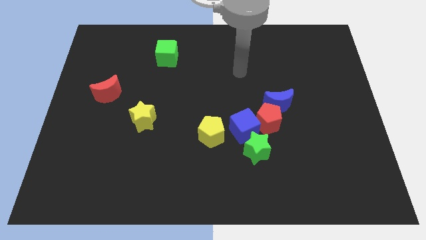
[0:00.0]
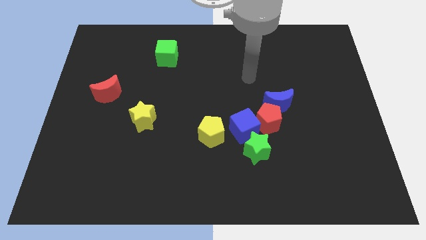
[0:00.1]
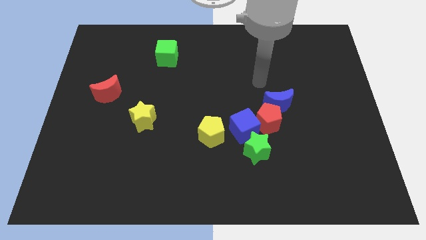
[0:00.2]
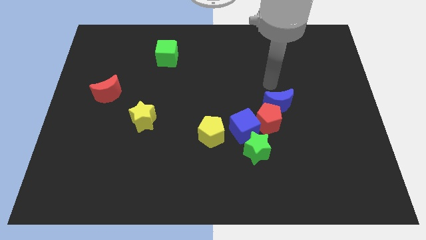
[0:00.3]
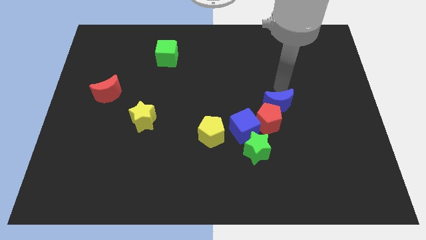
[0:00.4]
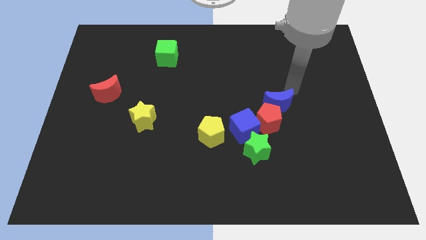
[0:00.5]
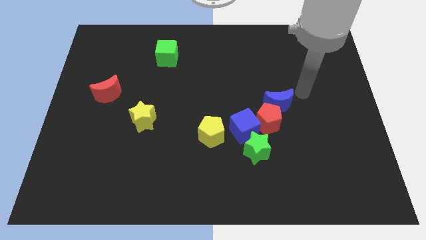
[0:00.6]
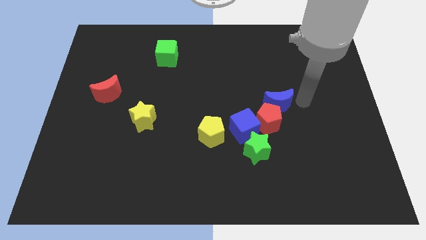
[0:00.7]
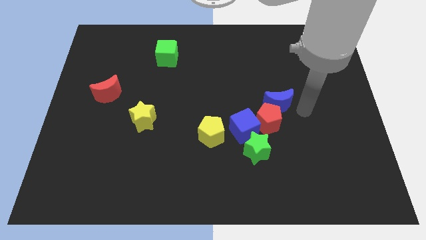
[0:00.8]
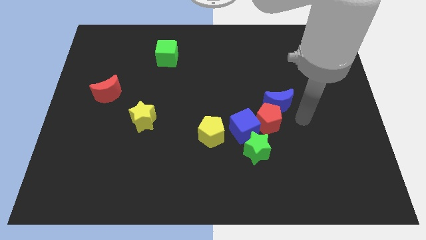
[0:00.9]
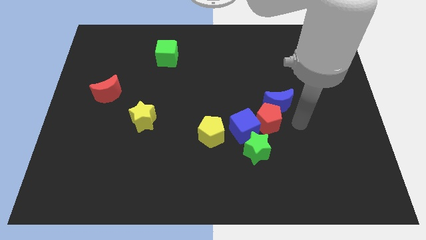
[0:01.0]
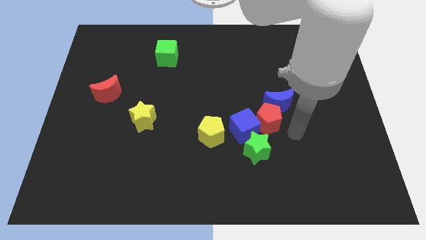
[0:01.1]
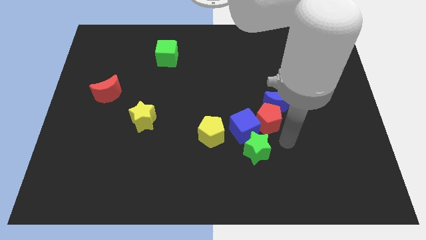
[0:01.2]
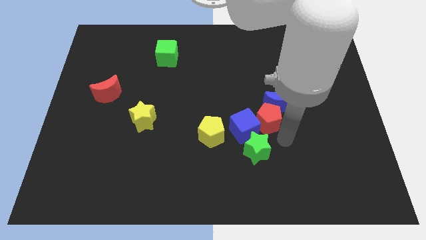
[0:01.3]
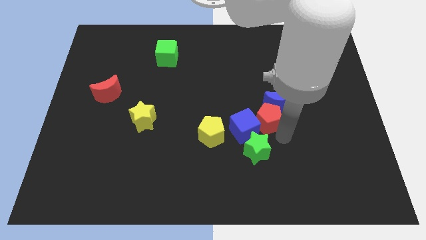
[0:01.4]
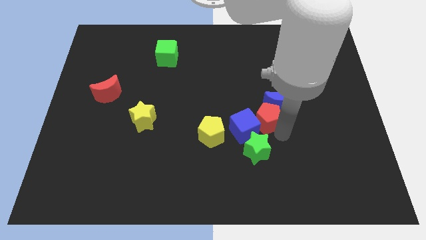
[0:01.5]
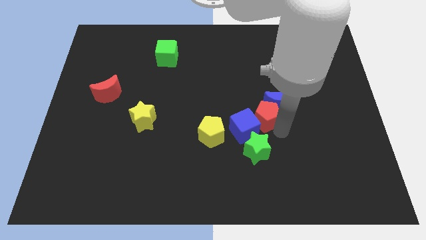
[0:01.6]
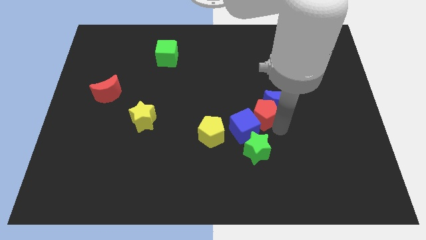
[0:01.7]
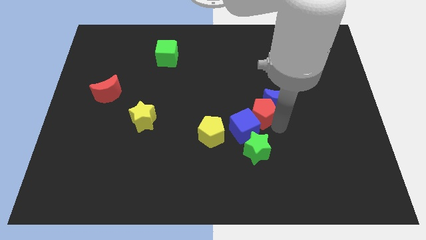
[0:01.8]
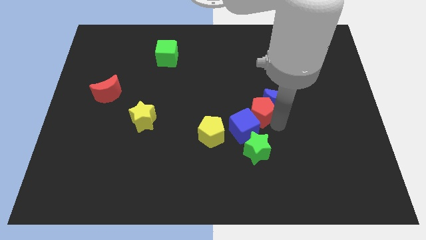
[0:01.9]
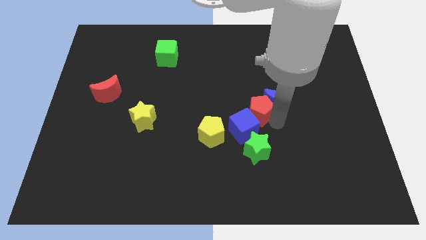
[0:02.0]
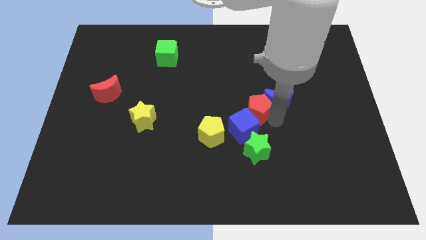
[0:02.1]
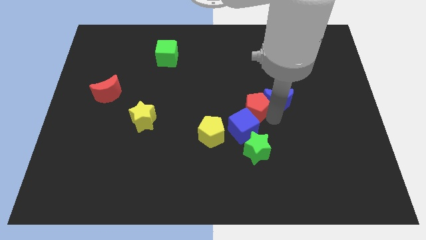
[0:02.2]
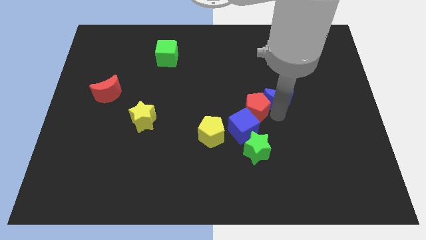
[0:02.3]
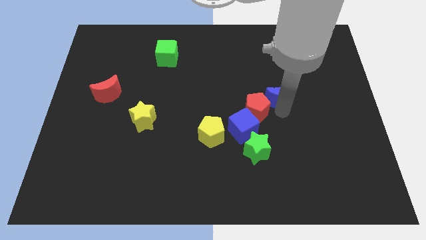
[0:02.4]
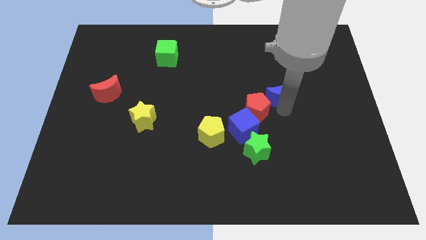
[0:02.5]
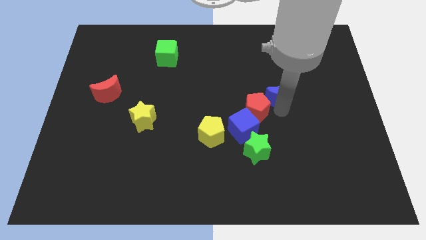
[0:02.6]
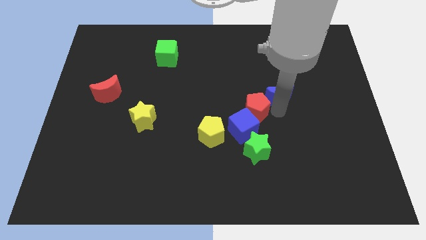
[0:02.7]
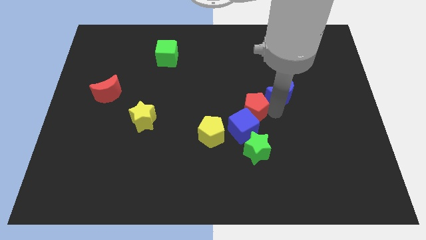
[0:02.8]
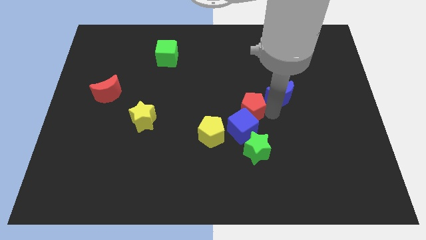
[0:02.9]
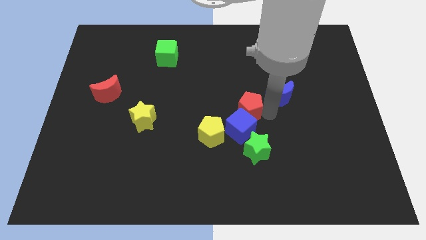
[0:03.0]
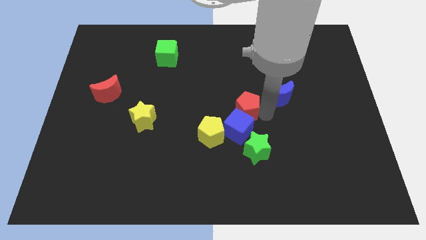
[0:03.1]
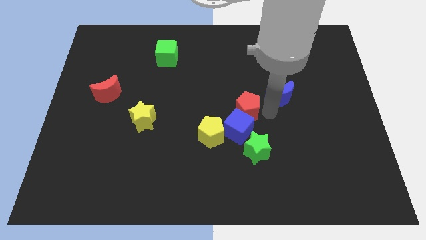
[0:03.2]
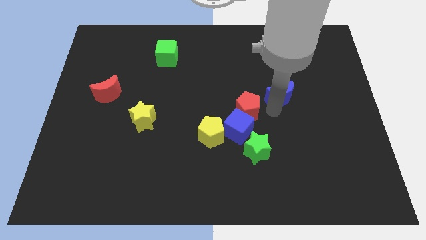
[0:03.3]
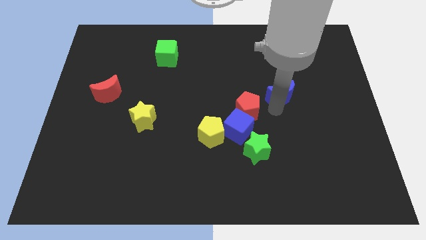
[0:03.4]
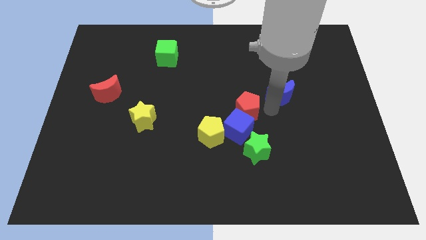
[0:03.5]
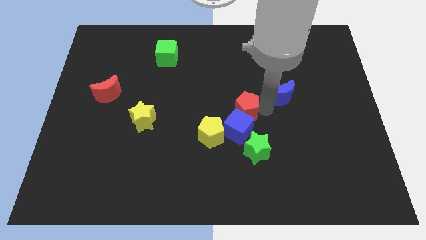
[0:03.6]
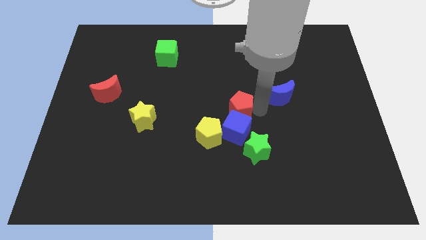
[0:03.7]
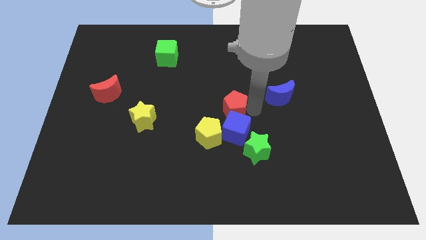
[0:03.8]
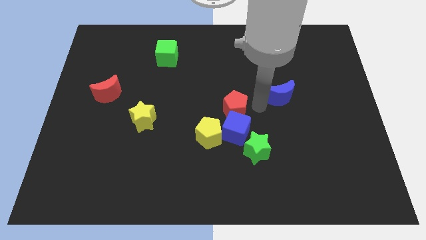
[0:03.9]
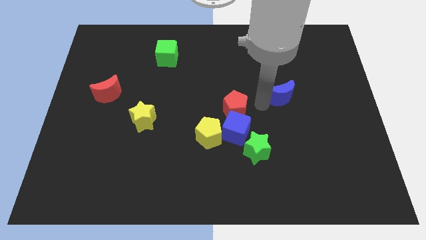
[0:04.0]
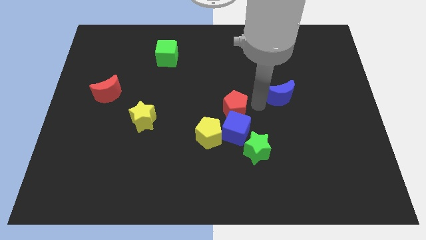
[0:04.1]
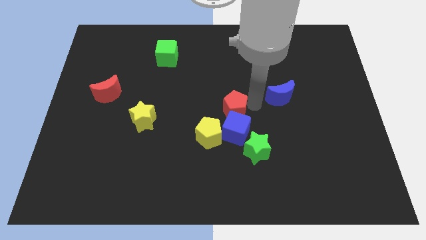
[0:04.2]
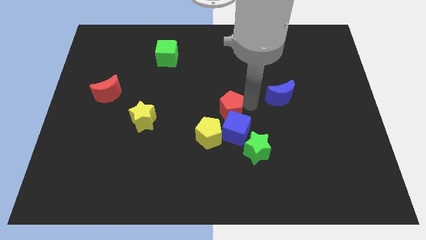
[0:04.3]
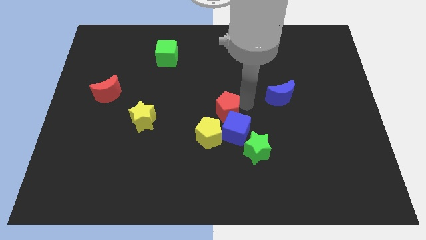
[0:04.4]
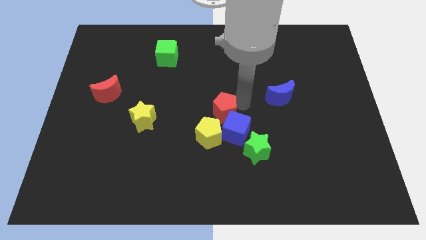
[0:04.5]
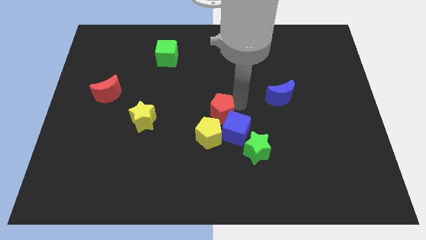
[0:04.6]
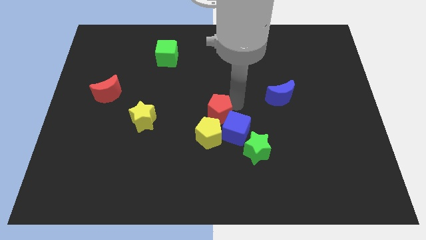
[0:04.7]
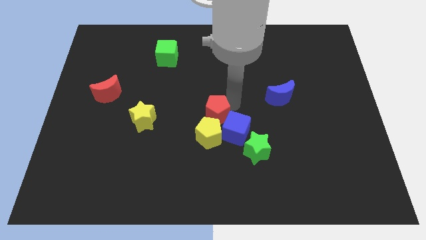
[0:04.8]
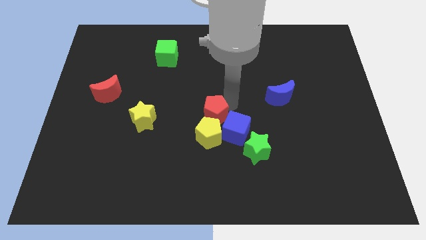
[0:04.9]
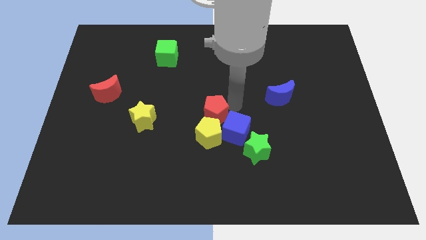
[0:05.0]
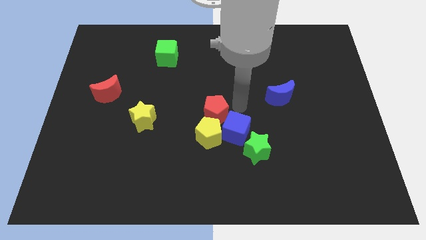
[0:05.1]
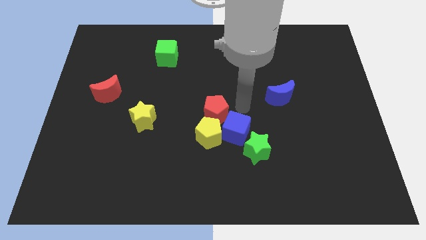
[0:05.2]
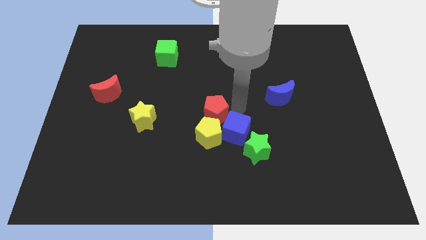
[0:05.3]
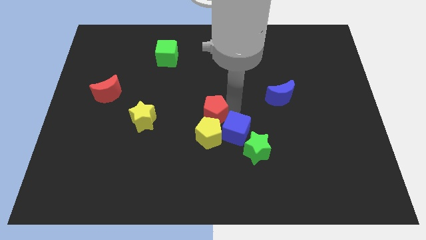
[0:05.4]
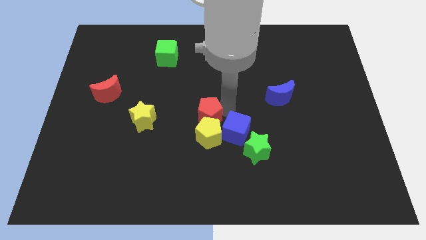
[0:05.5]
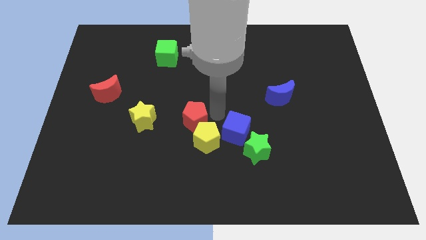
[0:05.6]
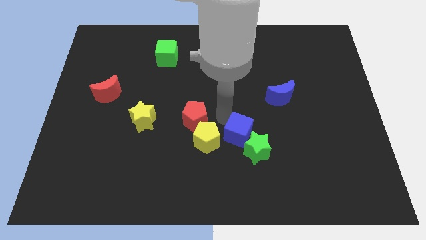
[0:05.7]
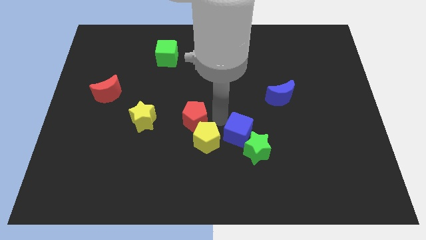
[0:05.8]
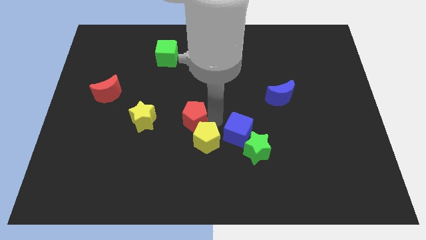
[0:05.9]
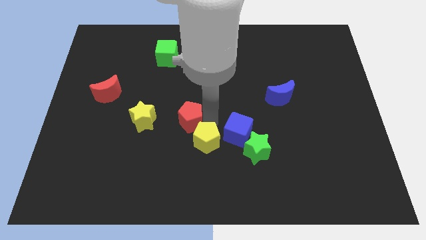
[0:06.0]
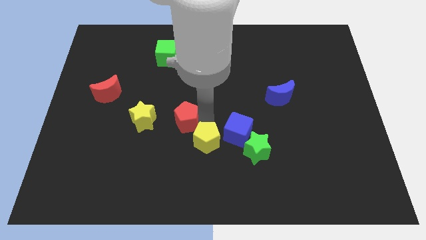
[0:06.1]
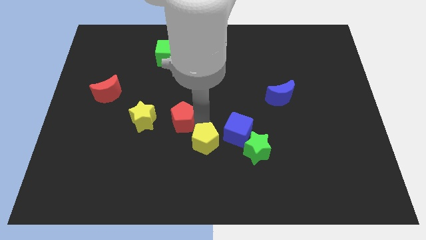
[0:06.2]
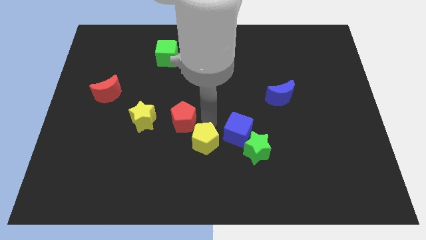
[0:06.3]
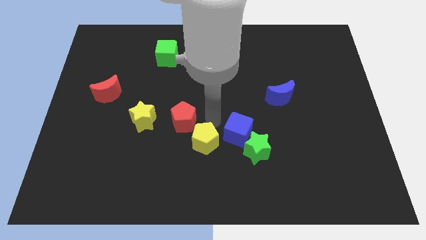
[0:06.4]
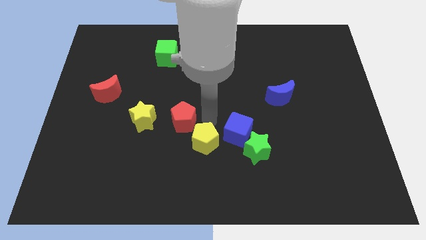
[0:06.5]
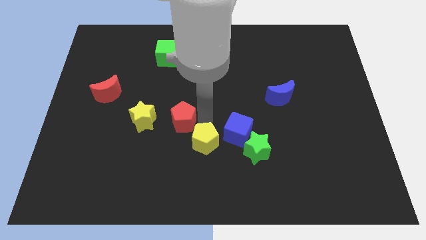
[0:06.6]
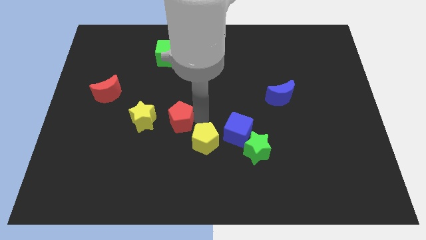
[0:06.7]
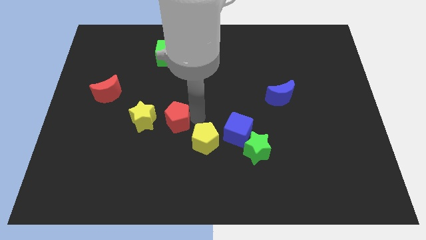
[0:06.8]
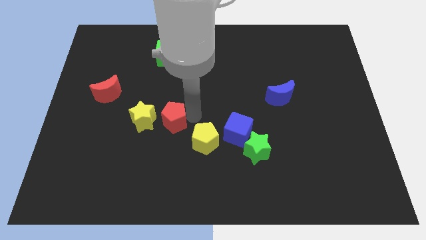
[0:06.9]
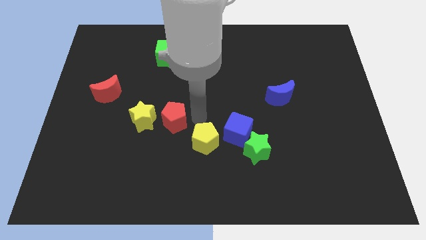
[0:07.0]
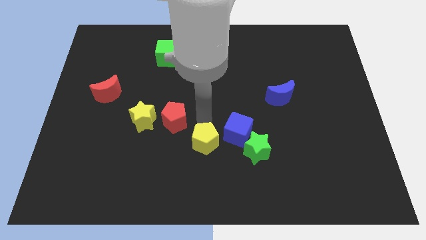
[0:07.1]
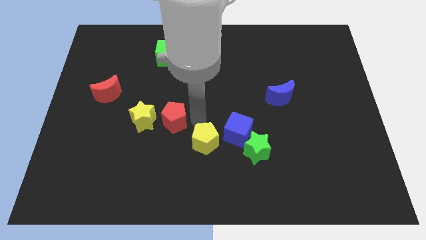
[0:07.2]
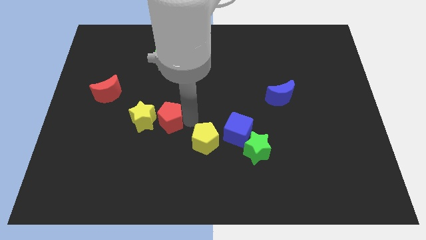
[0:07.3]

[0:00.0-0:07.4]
push the red pentagon close to the yellow star

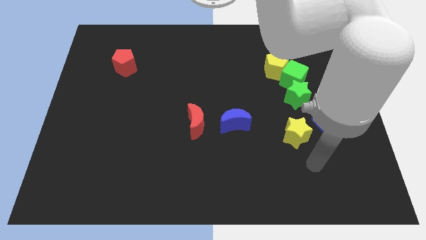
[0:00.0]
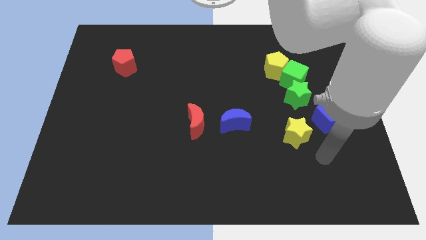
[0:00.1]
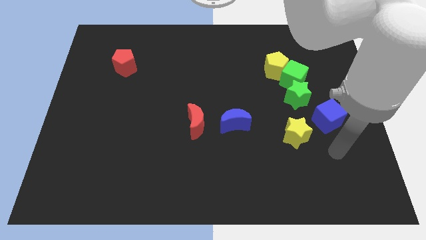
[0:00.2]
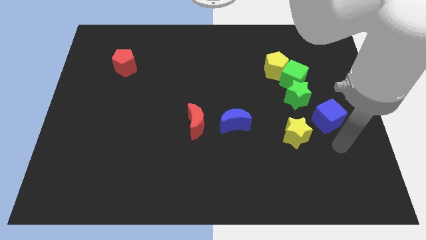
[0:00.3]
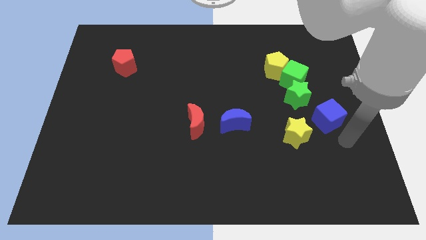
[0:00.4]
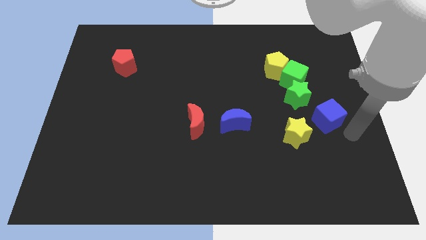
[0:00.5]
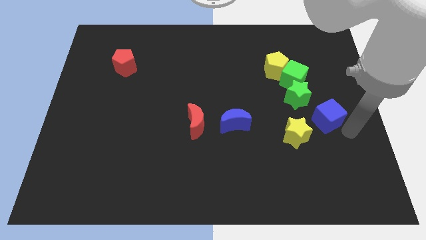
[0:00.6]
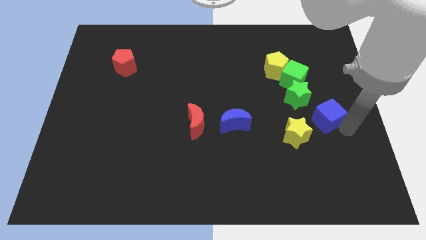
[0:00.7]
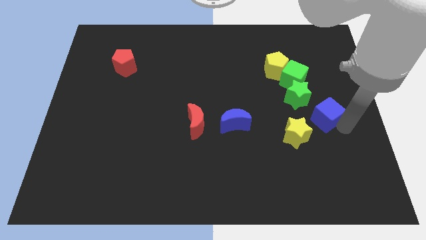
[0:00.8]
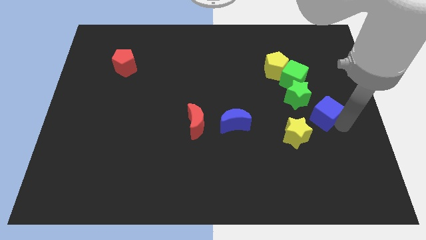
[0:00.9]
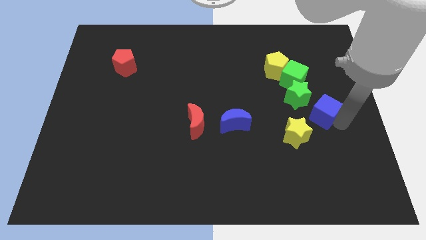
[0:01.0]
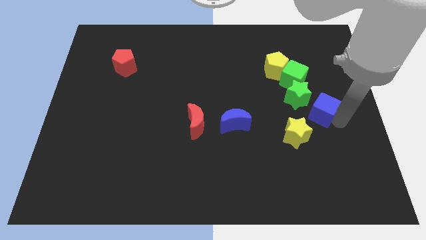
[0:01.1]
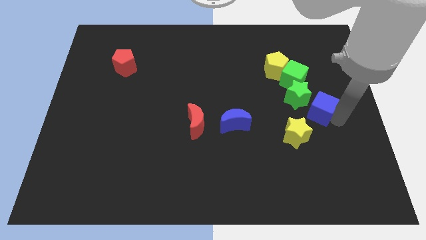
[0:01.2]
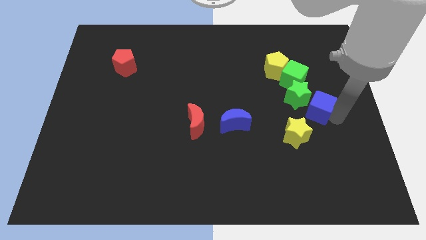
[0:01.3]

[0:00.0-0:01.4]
move the blue cube towards the green star
